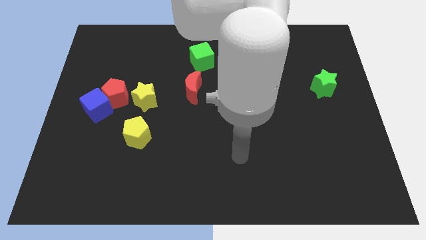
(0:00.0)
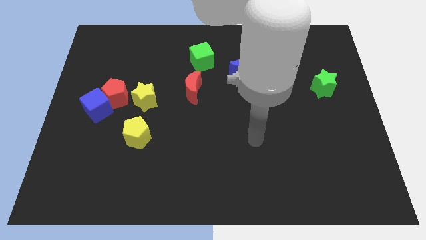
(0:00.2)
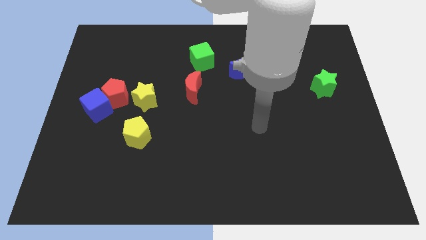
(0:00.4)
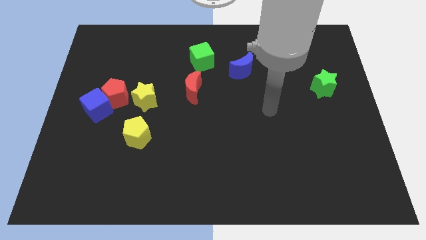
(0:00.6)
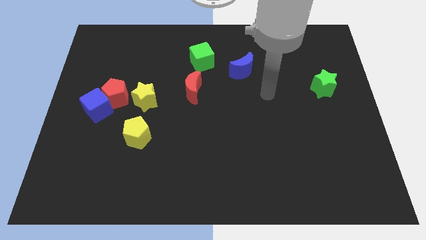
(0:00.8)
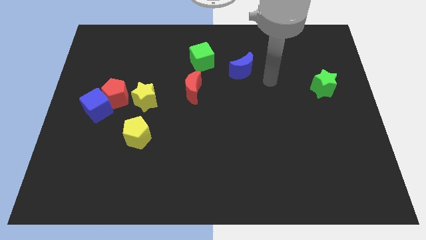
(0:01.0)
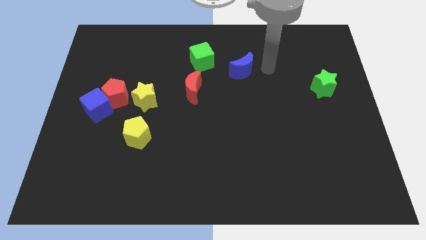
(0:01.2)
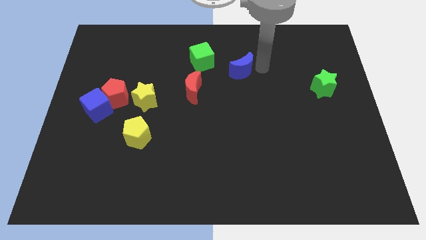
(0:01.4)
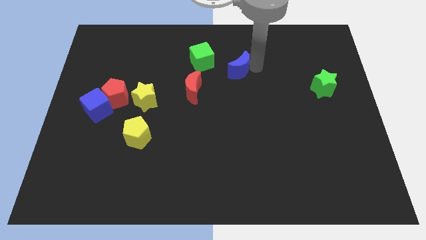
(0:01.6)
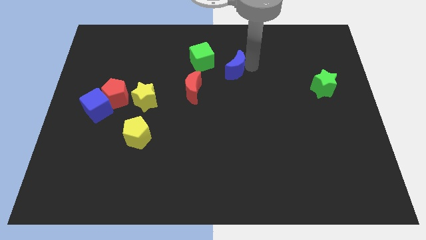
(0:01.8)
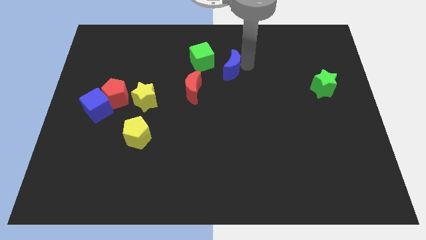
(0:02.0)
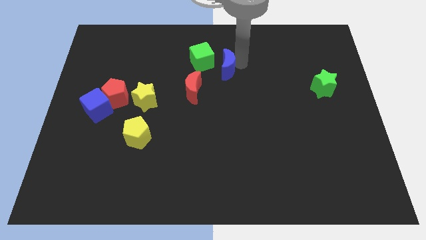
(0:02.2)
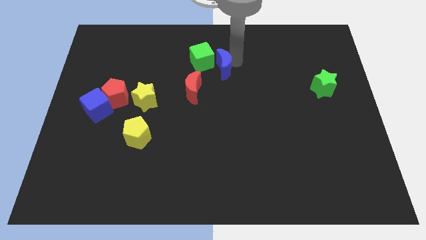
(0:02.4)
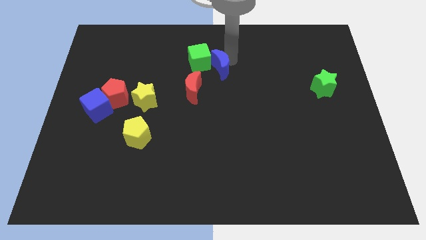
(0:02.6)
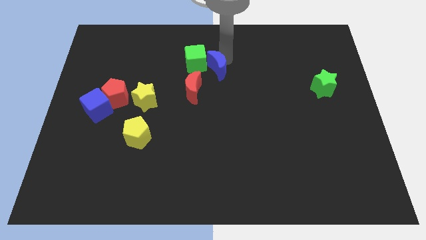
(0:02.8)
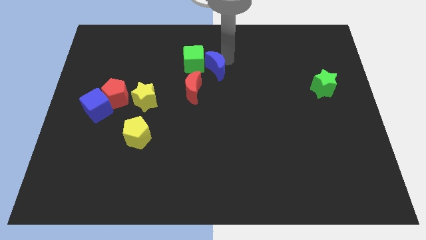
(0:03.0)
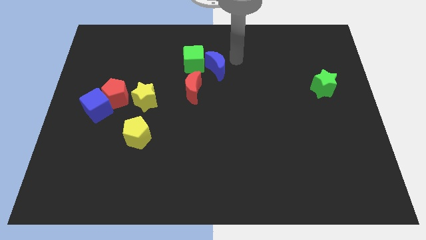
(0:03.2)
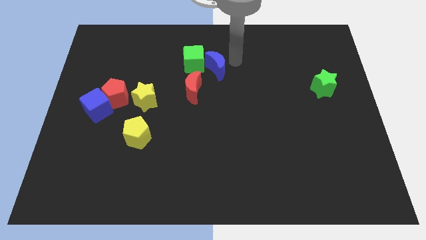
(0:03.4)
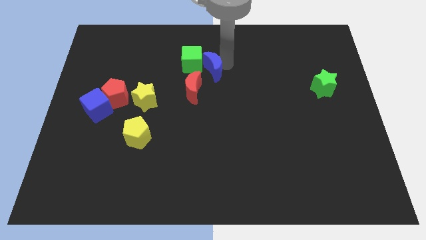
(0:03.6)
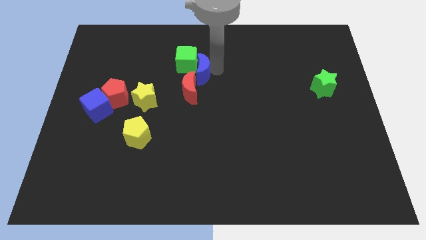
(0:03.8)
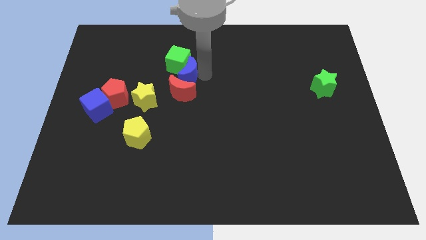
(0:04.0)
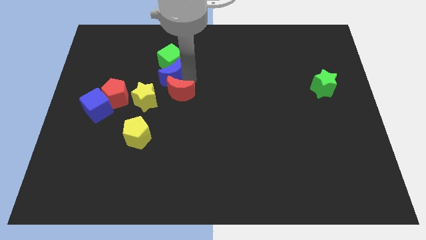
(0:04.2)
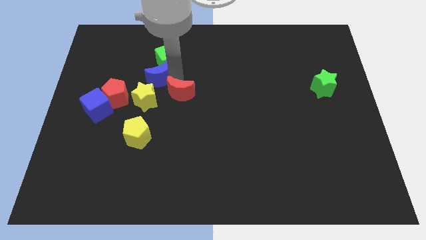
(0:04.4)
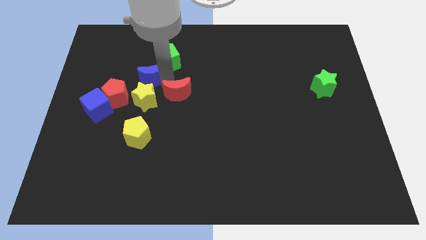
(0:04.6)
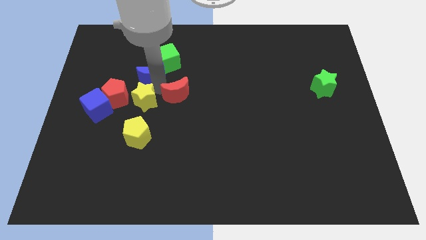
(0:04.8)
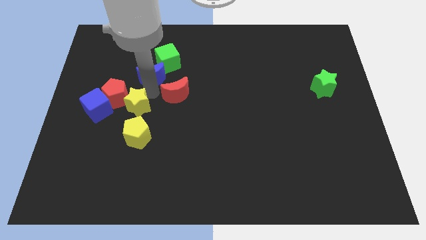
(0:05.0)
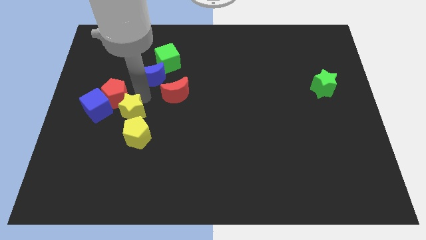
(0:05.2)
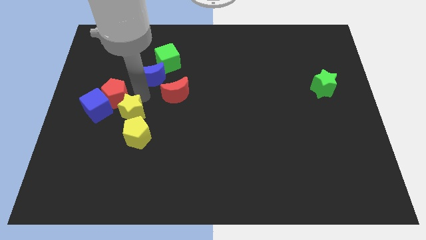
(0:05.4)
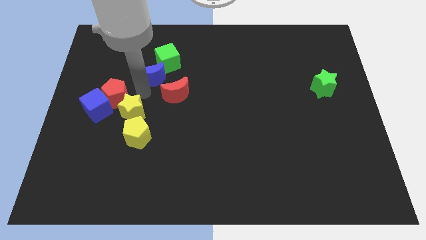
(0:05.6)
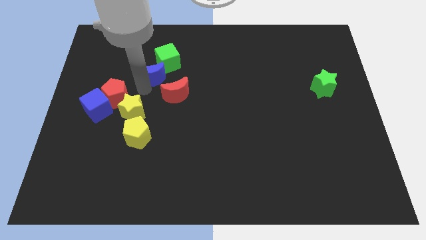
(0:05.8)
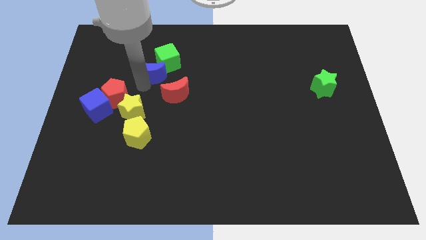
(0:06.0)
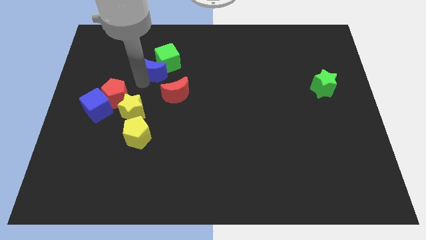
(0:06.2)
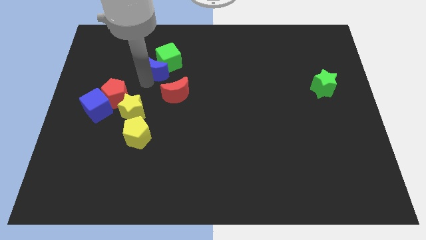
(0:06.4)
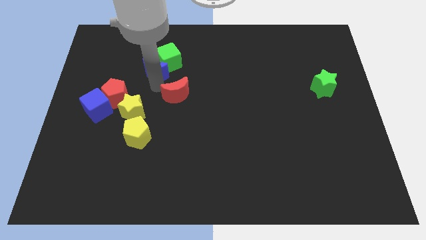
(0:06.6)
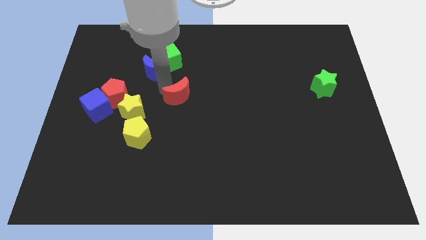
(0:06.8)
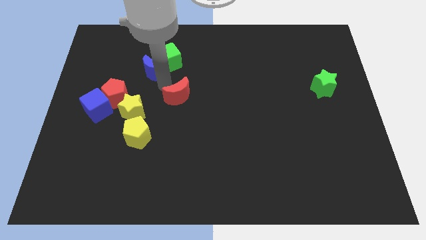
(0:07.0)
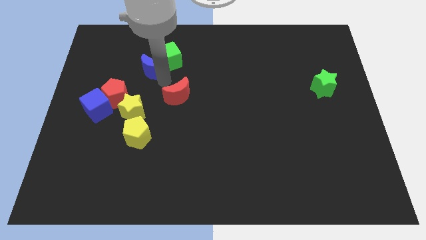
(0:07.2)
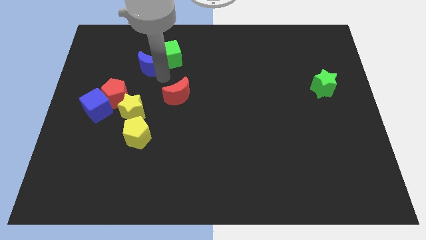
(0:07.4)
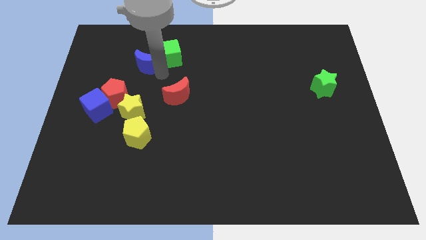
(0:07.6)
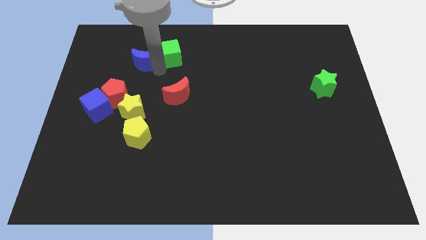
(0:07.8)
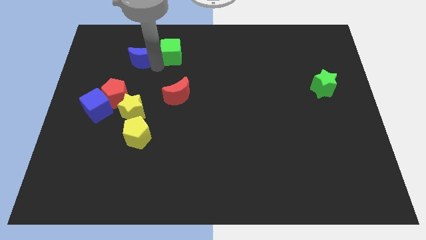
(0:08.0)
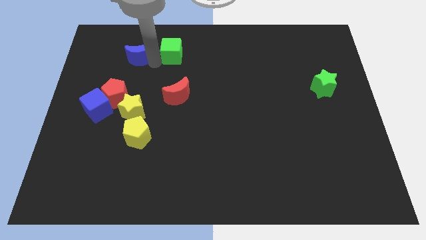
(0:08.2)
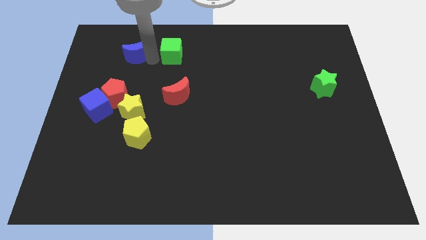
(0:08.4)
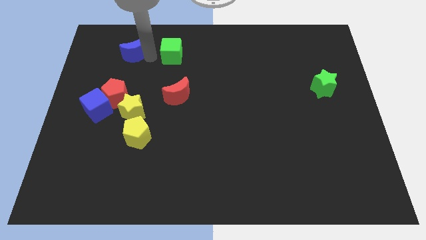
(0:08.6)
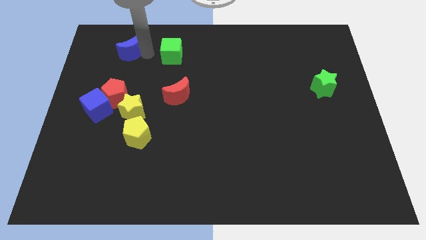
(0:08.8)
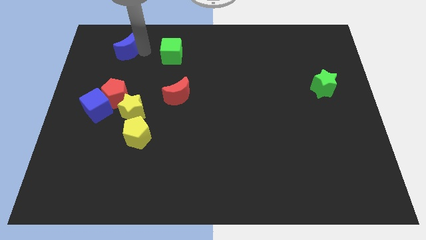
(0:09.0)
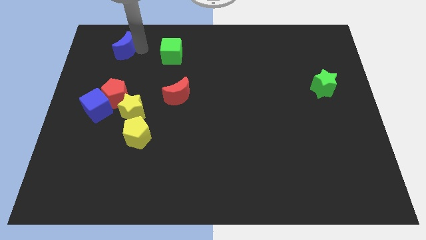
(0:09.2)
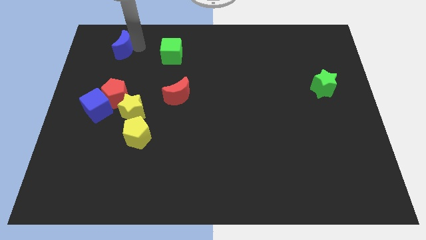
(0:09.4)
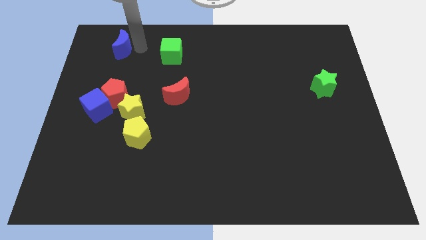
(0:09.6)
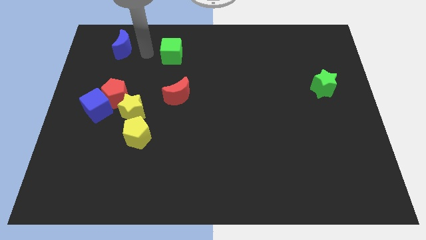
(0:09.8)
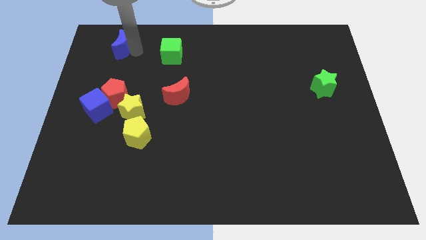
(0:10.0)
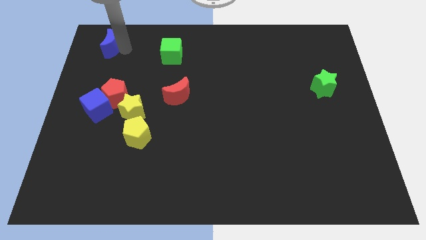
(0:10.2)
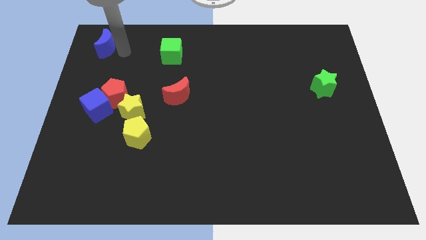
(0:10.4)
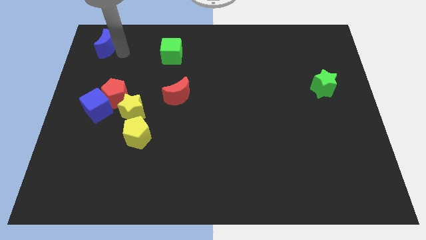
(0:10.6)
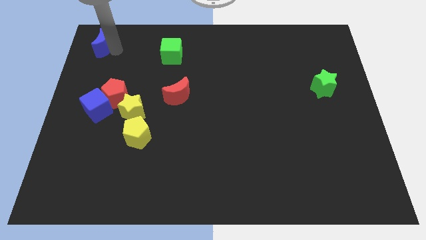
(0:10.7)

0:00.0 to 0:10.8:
move the blue moon to the top left corner

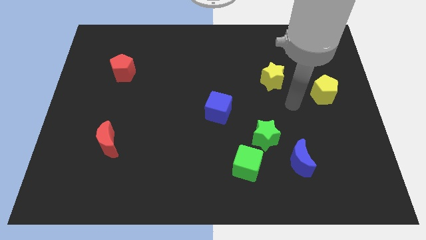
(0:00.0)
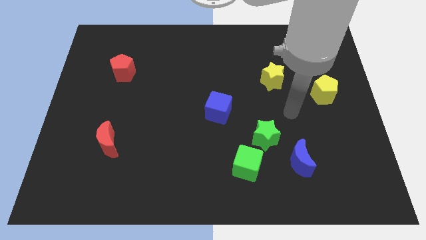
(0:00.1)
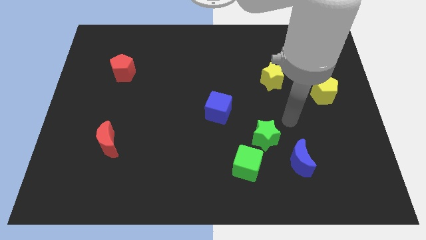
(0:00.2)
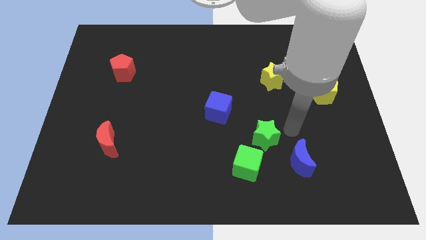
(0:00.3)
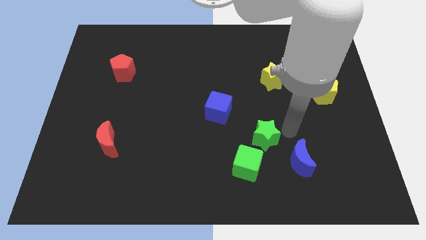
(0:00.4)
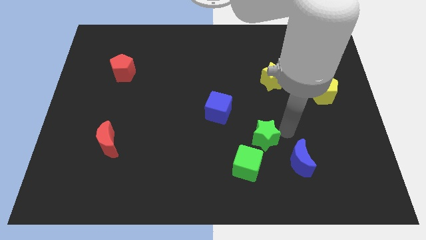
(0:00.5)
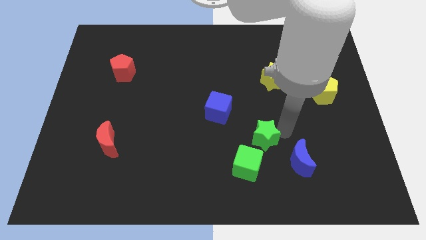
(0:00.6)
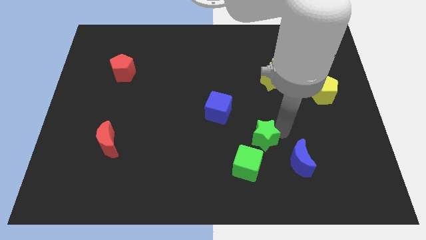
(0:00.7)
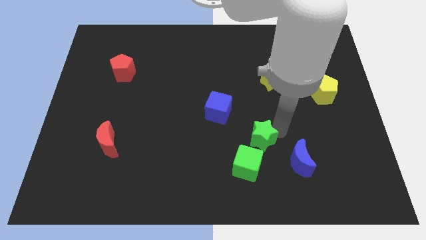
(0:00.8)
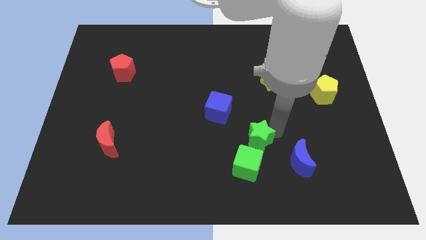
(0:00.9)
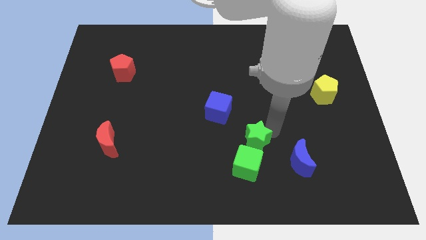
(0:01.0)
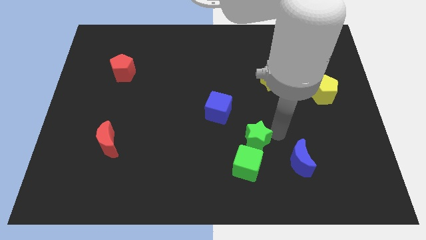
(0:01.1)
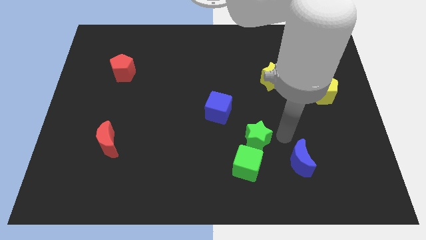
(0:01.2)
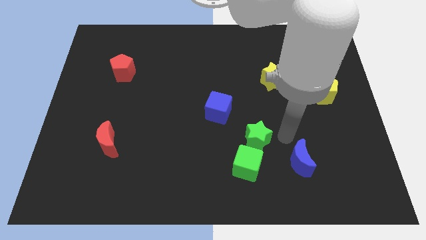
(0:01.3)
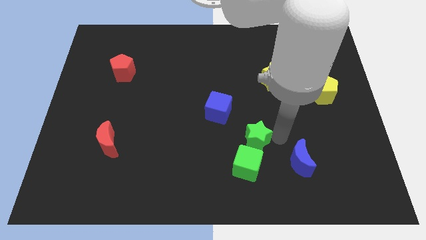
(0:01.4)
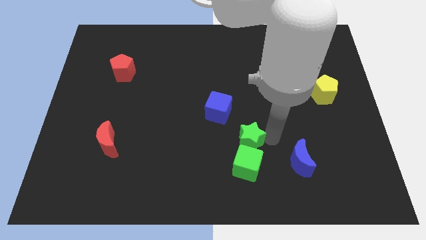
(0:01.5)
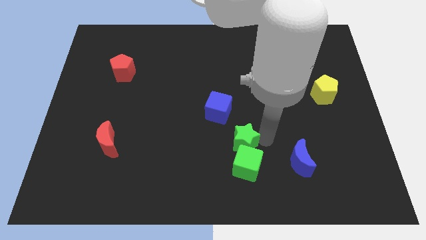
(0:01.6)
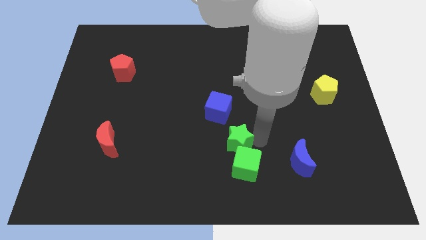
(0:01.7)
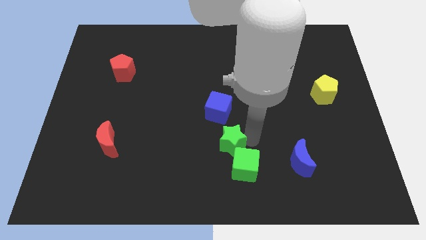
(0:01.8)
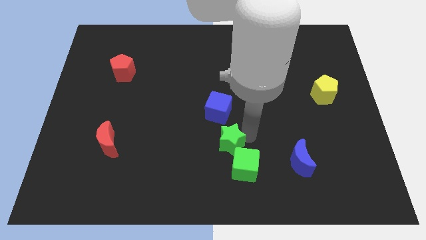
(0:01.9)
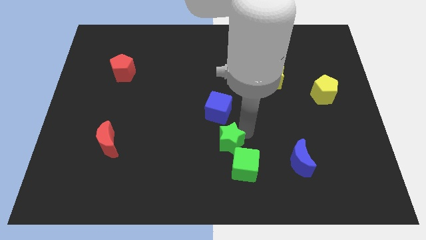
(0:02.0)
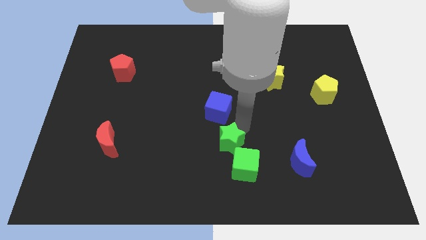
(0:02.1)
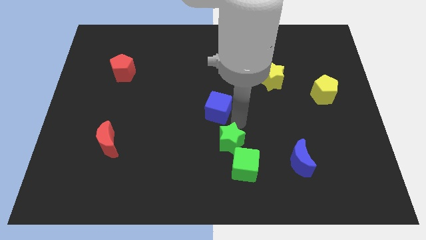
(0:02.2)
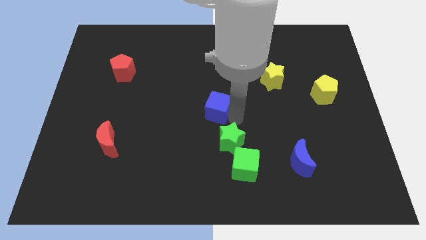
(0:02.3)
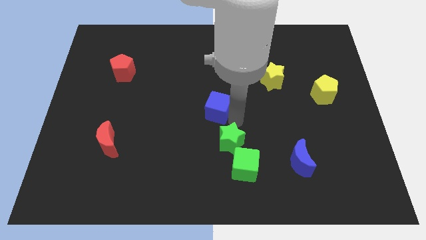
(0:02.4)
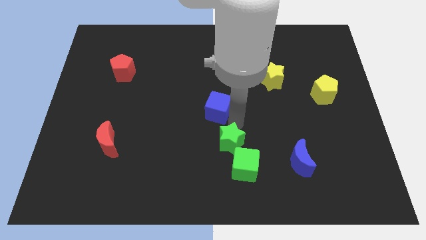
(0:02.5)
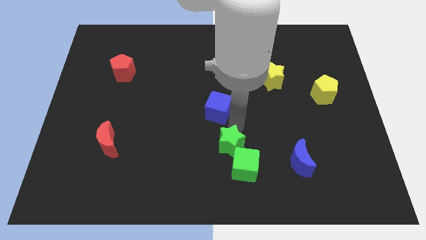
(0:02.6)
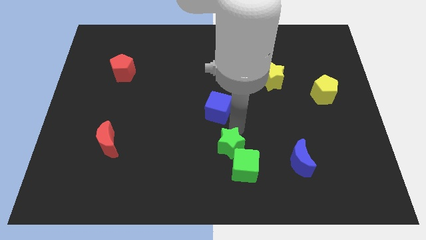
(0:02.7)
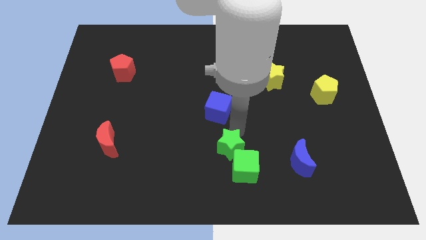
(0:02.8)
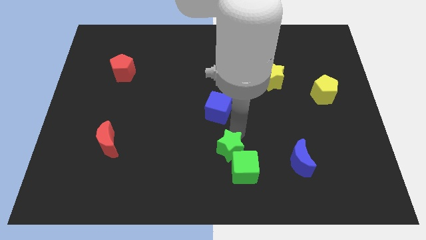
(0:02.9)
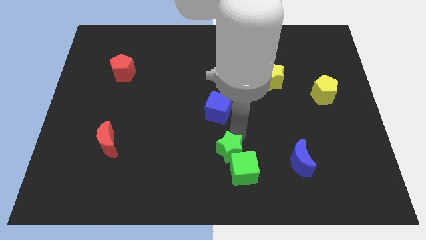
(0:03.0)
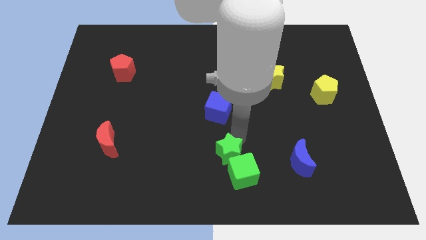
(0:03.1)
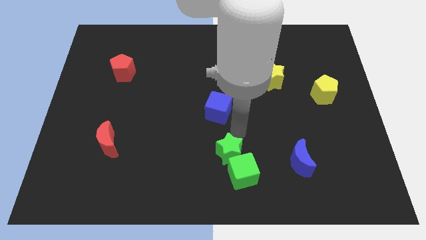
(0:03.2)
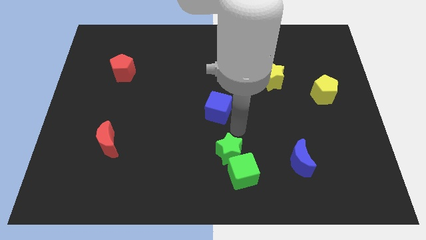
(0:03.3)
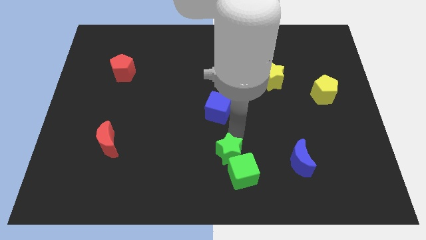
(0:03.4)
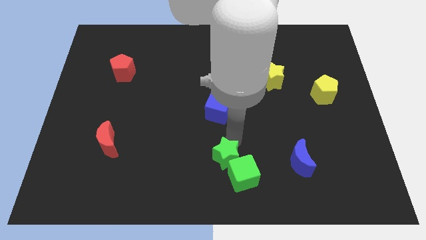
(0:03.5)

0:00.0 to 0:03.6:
move the green star to the bottom
